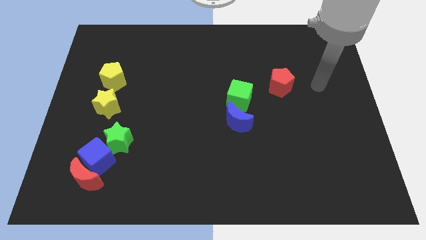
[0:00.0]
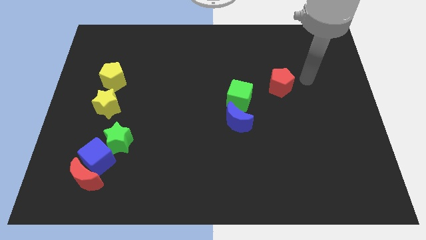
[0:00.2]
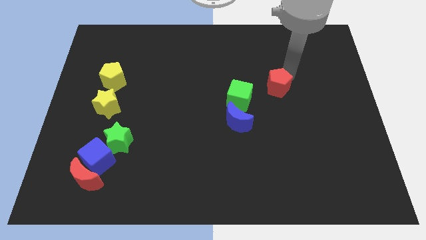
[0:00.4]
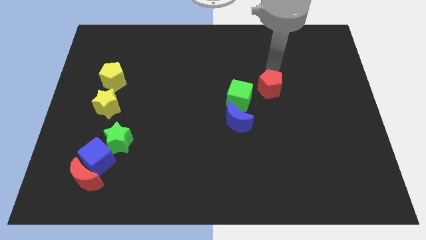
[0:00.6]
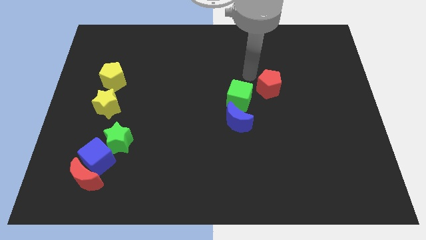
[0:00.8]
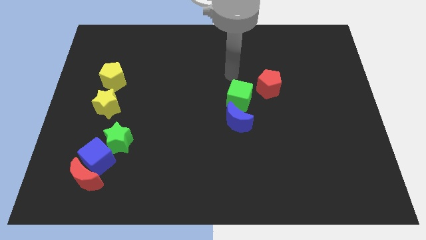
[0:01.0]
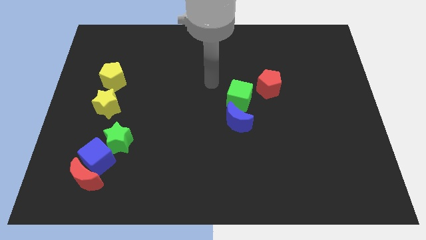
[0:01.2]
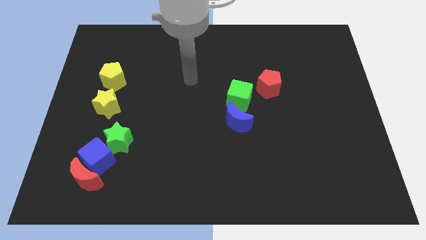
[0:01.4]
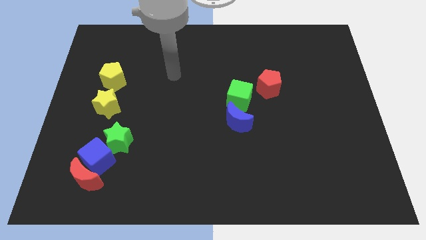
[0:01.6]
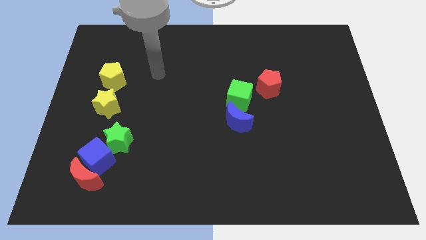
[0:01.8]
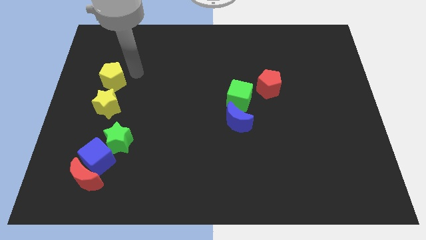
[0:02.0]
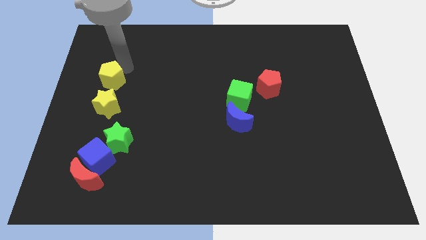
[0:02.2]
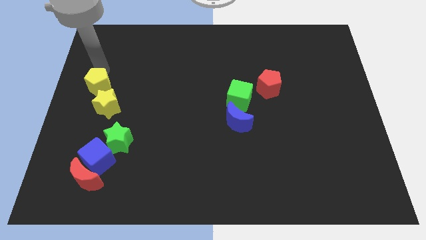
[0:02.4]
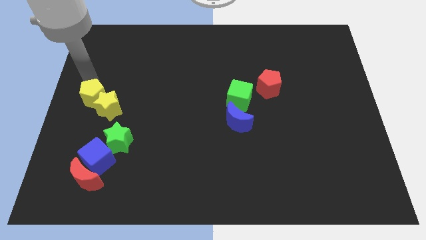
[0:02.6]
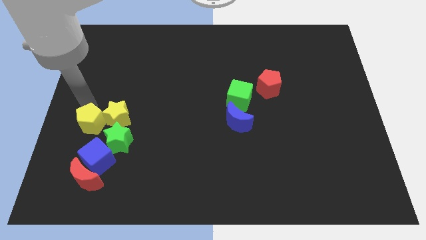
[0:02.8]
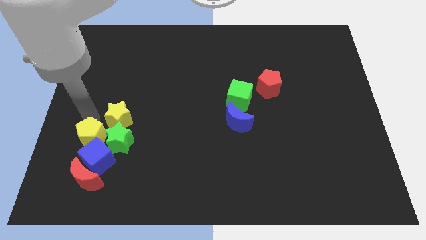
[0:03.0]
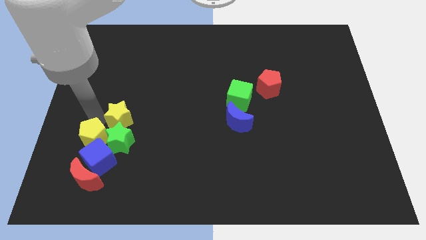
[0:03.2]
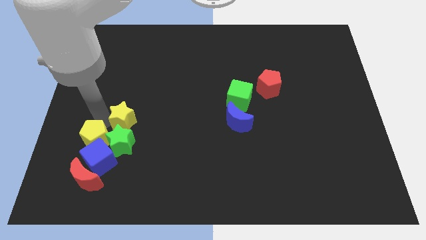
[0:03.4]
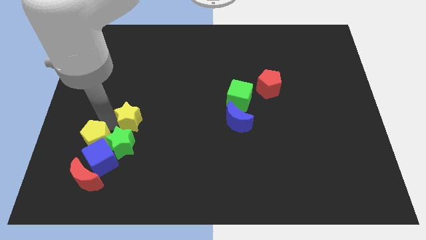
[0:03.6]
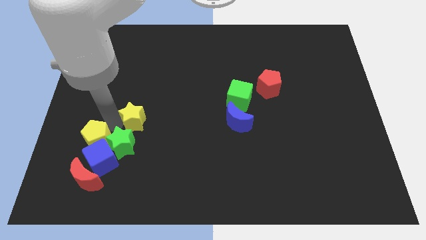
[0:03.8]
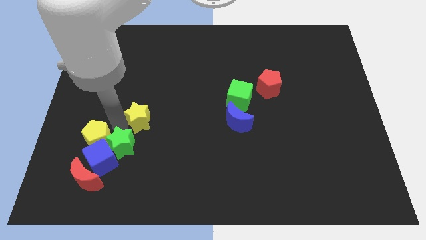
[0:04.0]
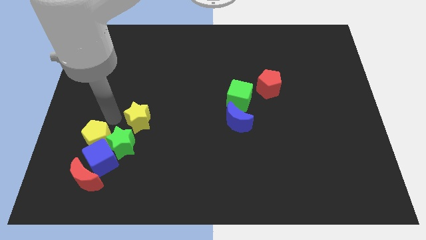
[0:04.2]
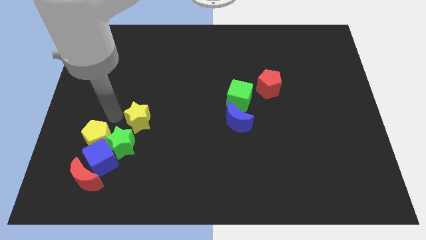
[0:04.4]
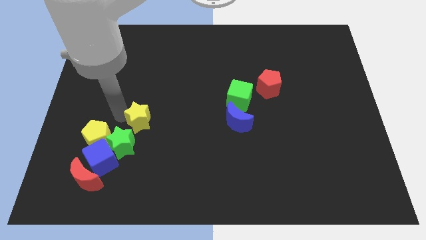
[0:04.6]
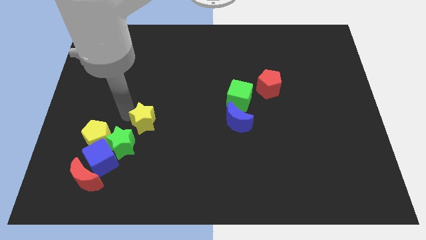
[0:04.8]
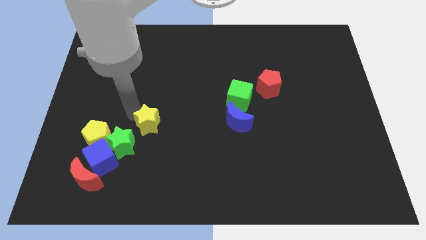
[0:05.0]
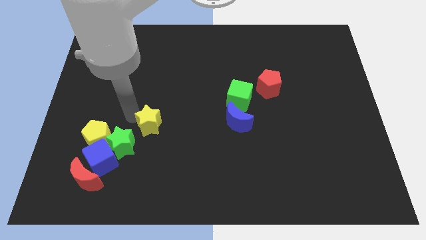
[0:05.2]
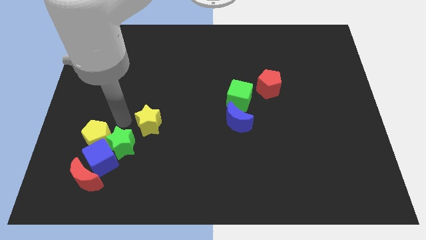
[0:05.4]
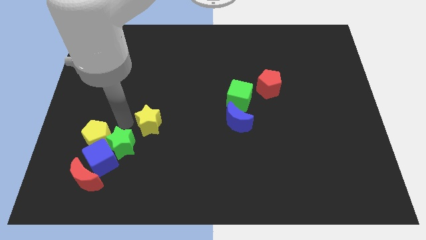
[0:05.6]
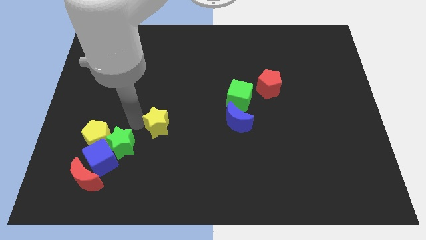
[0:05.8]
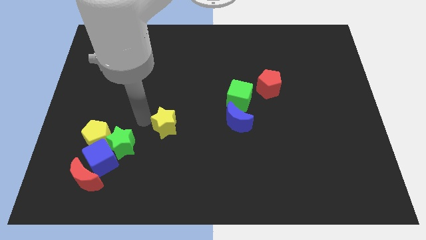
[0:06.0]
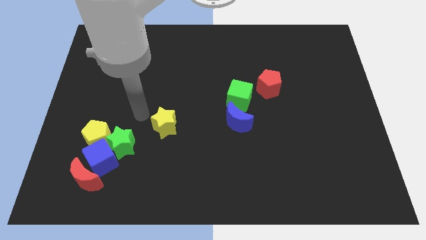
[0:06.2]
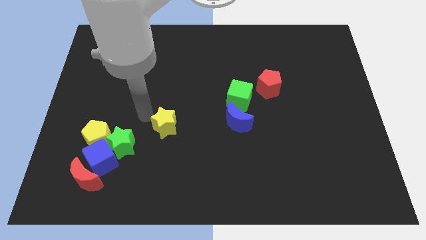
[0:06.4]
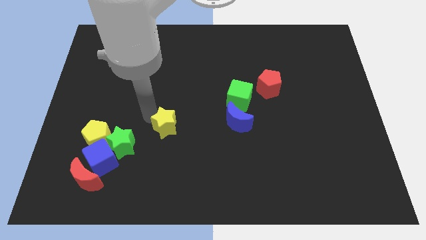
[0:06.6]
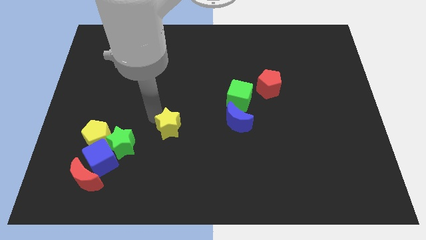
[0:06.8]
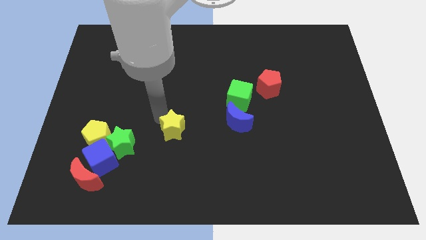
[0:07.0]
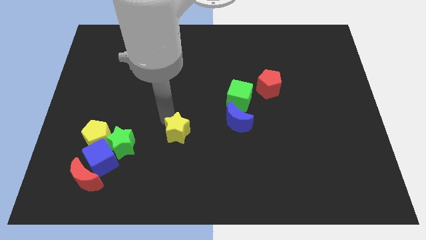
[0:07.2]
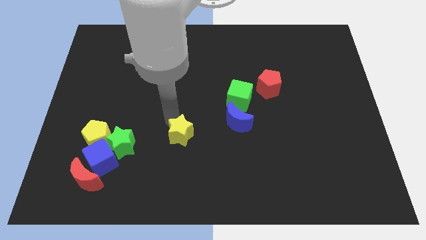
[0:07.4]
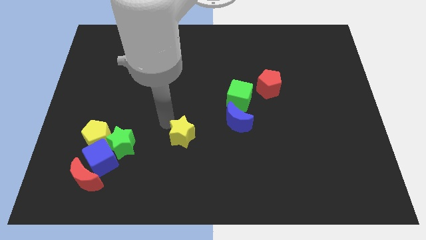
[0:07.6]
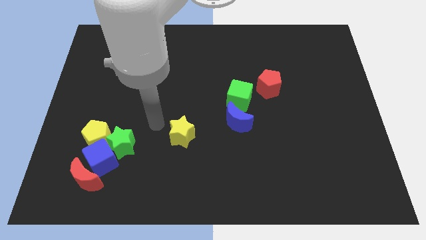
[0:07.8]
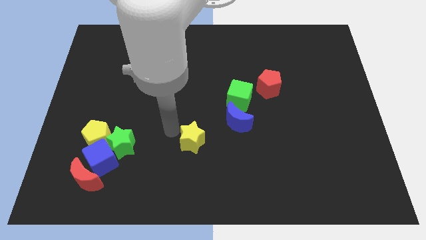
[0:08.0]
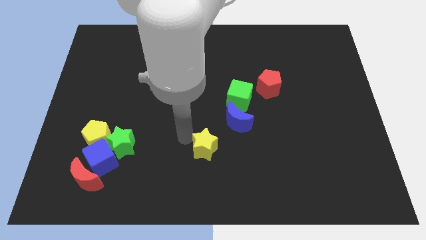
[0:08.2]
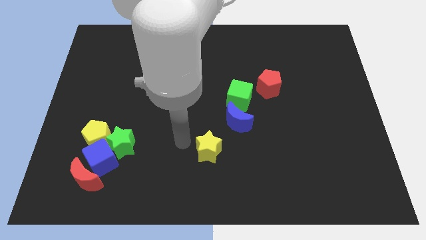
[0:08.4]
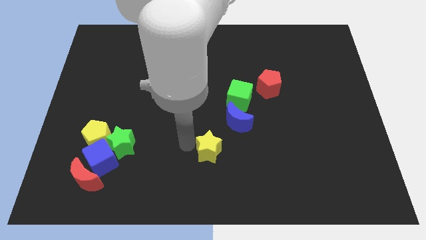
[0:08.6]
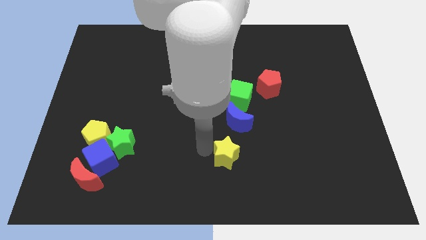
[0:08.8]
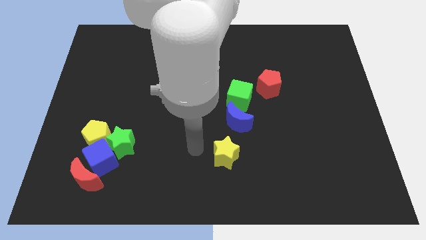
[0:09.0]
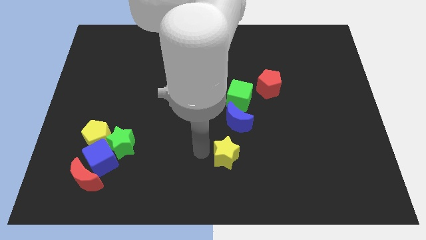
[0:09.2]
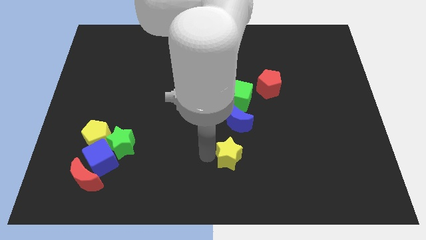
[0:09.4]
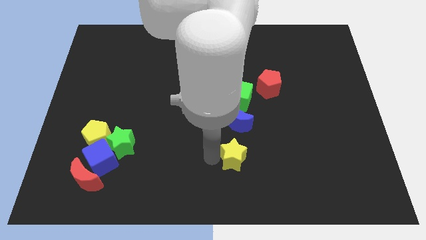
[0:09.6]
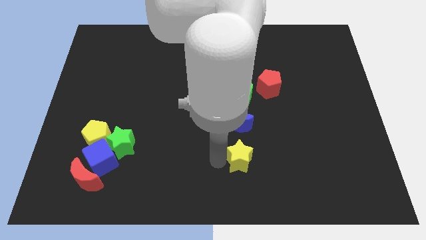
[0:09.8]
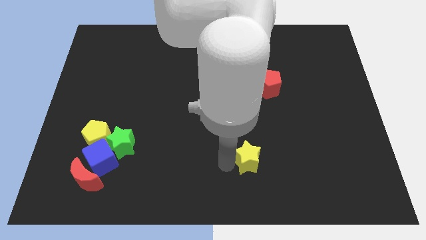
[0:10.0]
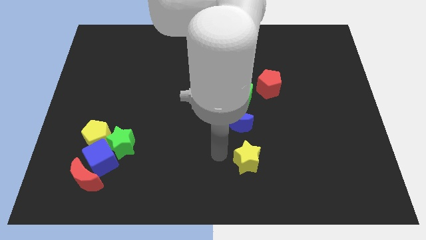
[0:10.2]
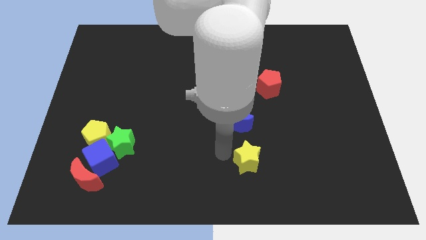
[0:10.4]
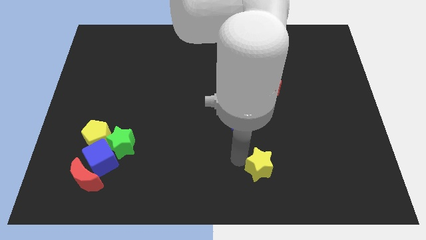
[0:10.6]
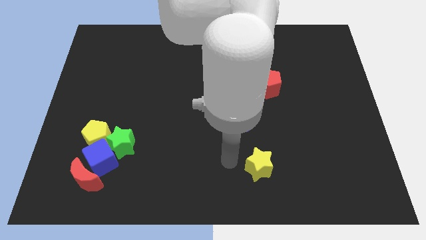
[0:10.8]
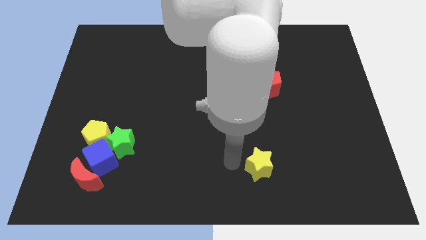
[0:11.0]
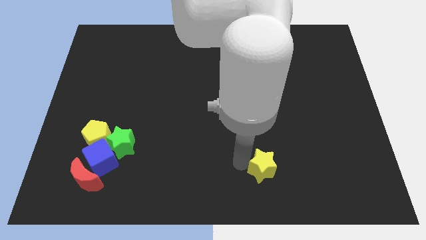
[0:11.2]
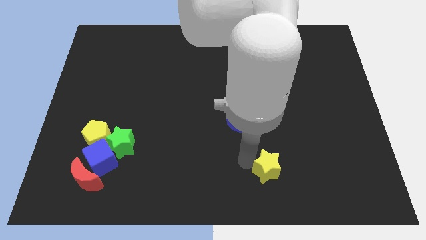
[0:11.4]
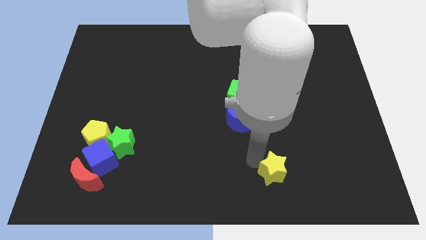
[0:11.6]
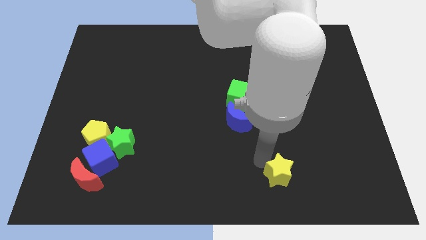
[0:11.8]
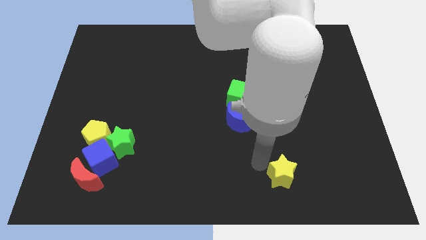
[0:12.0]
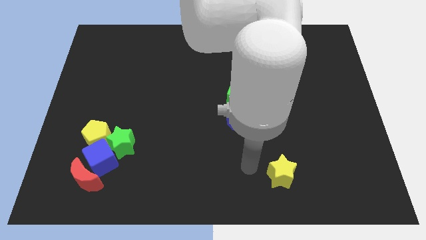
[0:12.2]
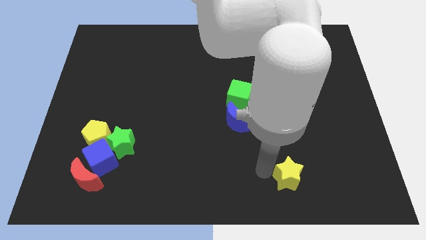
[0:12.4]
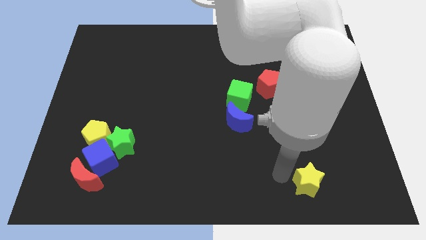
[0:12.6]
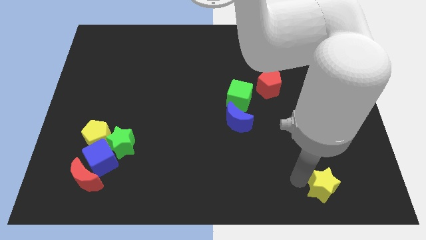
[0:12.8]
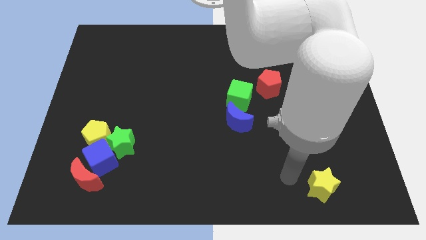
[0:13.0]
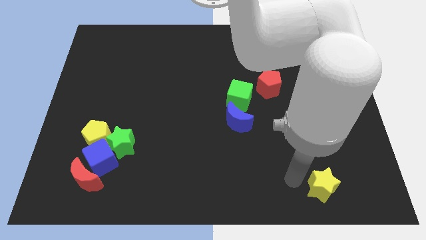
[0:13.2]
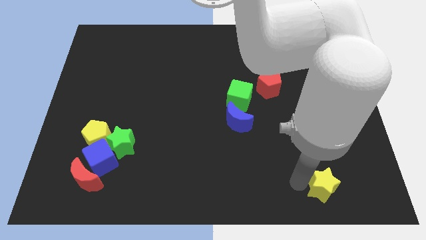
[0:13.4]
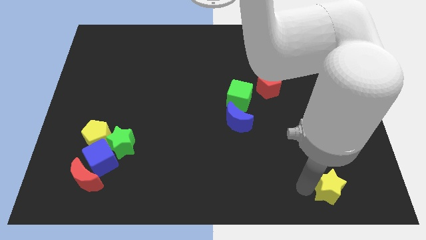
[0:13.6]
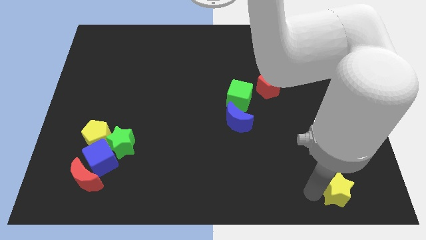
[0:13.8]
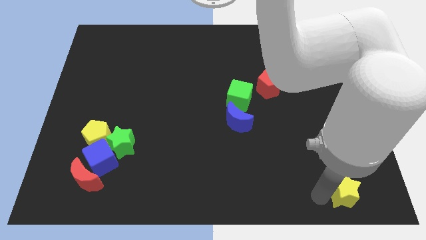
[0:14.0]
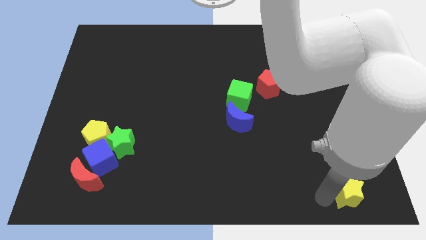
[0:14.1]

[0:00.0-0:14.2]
put the yellow star to the bottom right of the board
